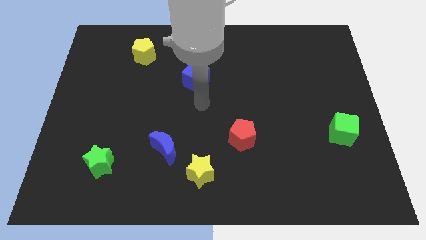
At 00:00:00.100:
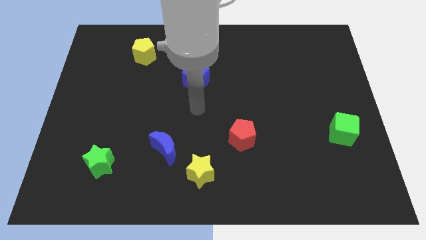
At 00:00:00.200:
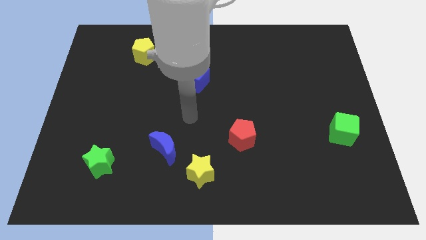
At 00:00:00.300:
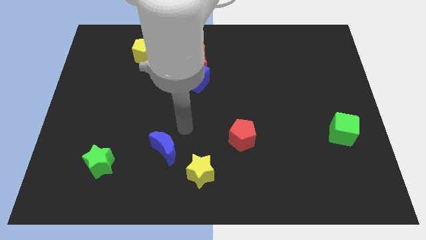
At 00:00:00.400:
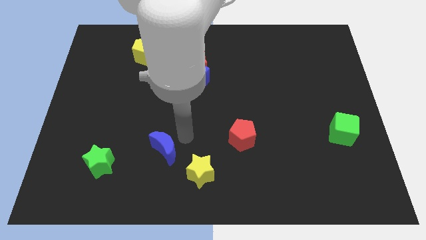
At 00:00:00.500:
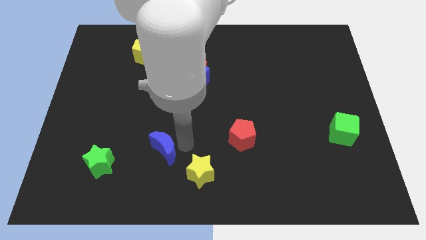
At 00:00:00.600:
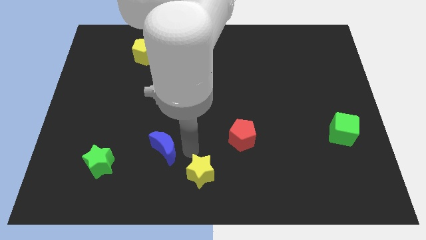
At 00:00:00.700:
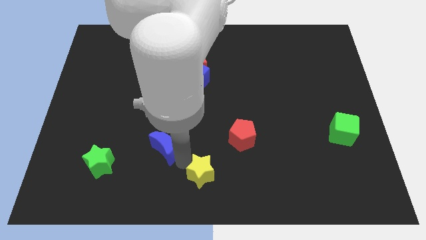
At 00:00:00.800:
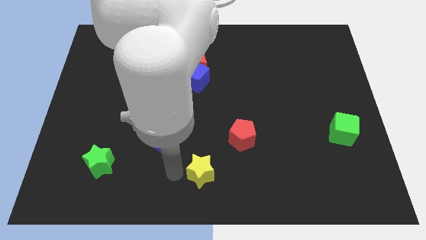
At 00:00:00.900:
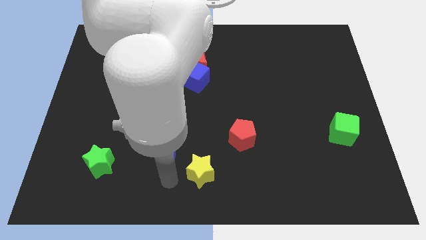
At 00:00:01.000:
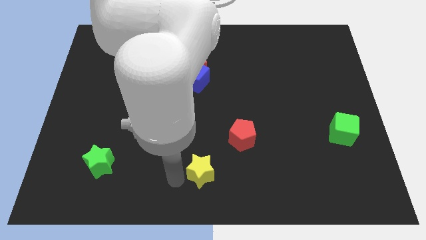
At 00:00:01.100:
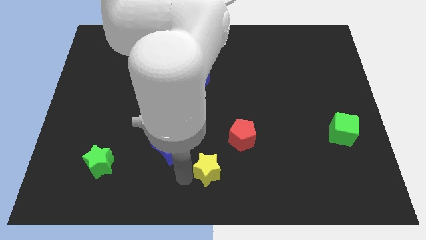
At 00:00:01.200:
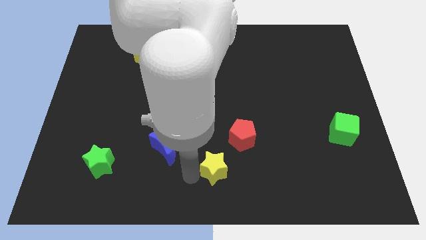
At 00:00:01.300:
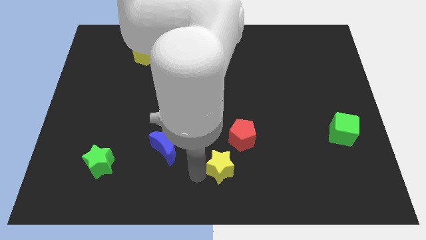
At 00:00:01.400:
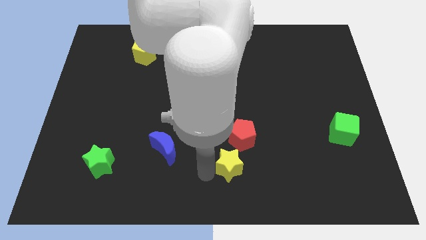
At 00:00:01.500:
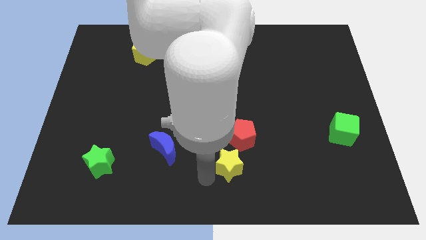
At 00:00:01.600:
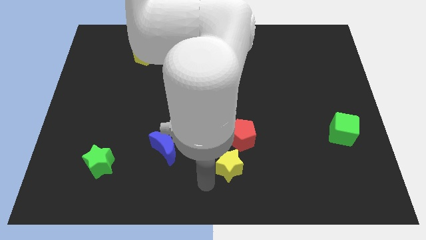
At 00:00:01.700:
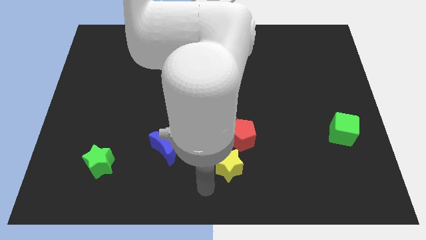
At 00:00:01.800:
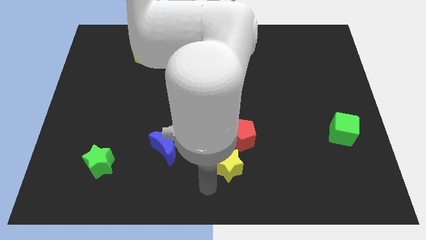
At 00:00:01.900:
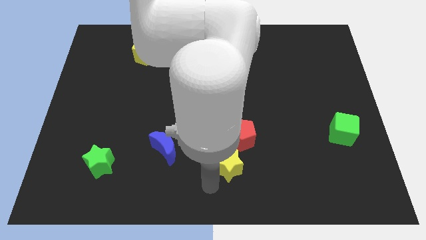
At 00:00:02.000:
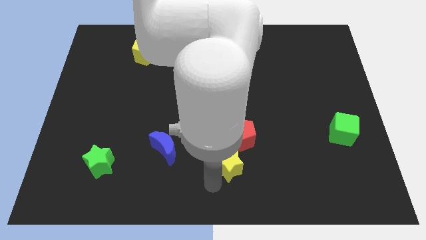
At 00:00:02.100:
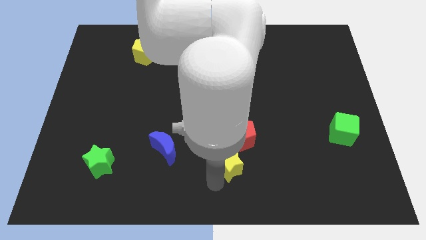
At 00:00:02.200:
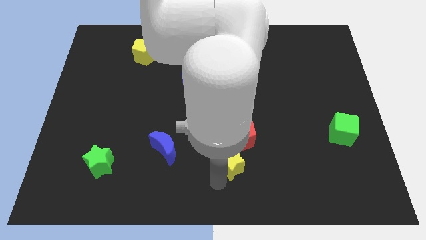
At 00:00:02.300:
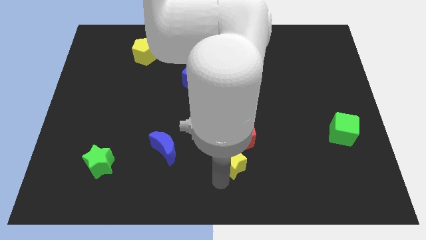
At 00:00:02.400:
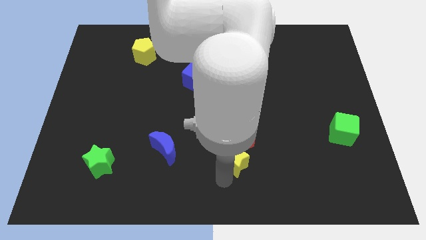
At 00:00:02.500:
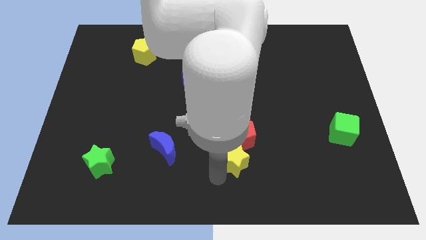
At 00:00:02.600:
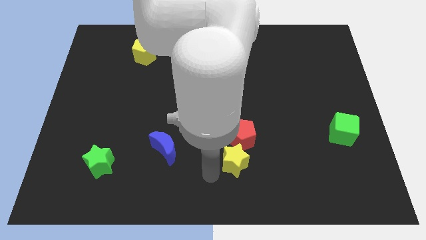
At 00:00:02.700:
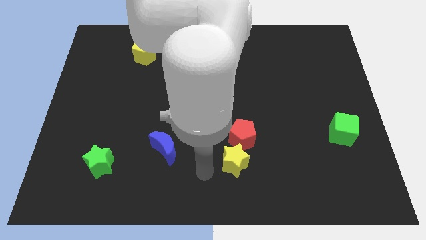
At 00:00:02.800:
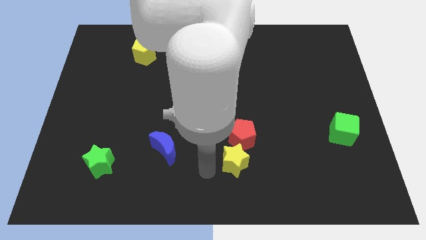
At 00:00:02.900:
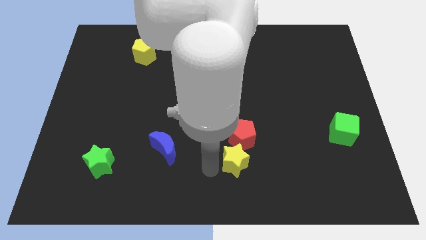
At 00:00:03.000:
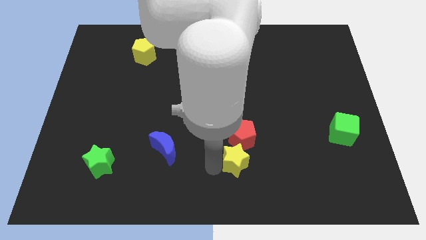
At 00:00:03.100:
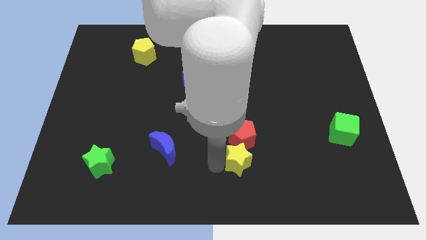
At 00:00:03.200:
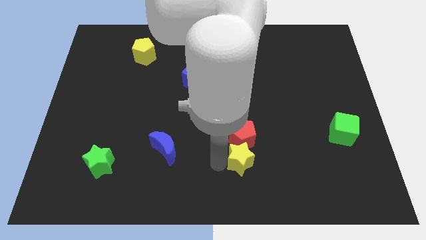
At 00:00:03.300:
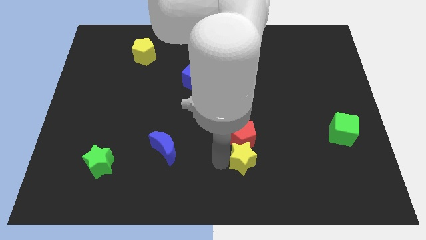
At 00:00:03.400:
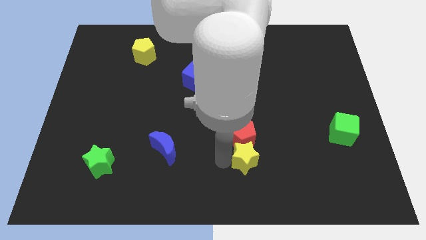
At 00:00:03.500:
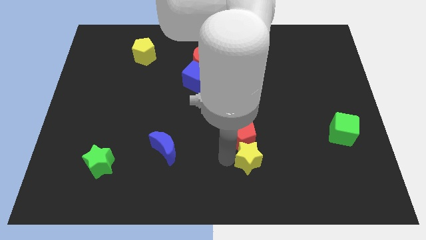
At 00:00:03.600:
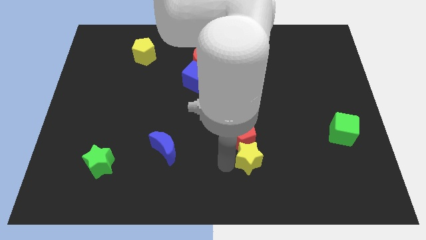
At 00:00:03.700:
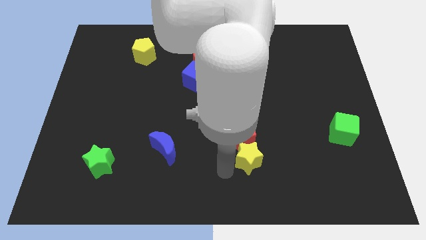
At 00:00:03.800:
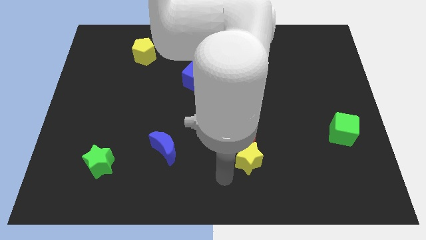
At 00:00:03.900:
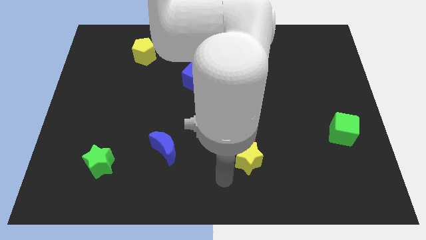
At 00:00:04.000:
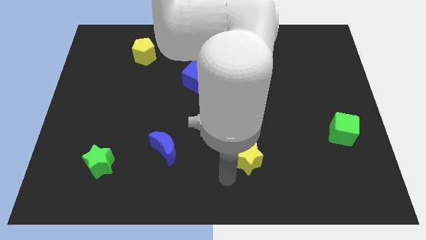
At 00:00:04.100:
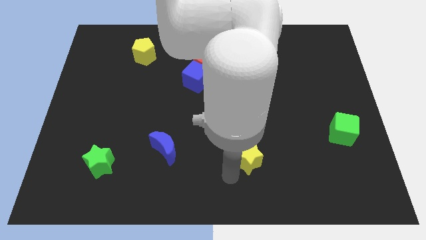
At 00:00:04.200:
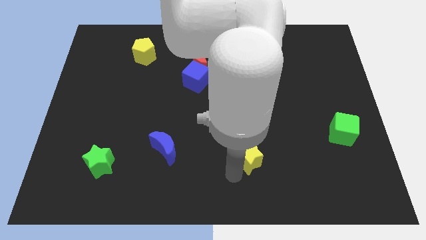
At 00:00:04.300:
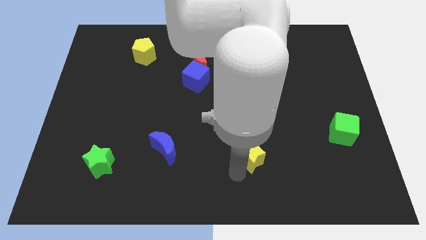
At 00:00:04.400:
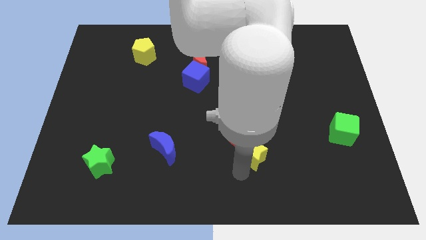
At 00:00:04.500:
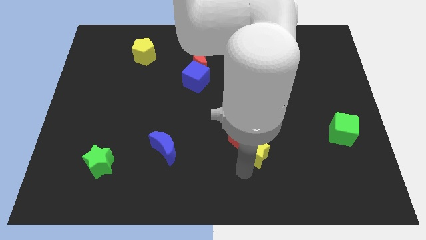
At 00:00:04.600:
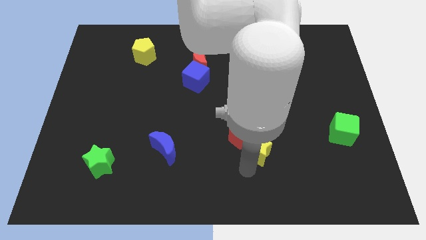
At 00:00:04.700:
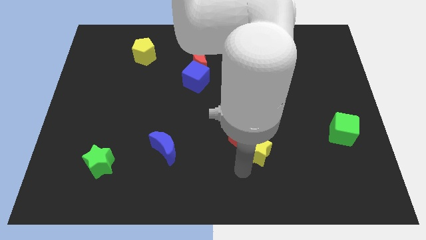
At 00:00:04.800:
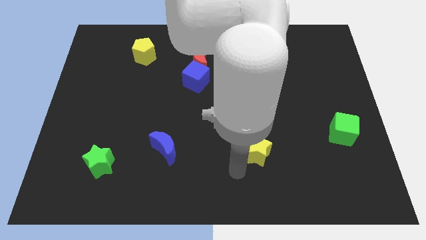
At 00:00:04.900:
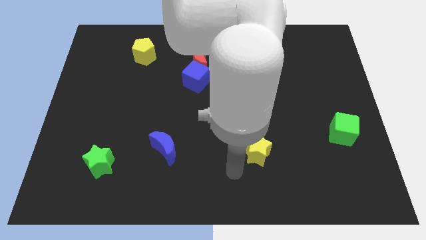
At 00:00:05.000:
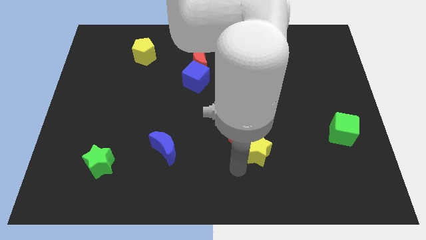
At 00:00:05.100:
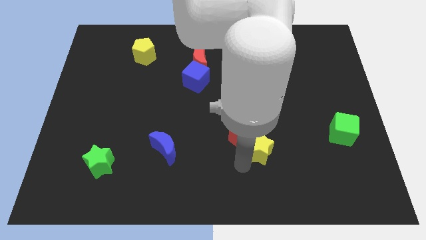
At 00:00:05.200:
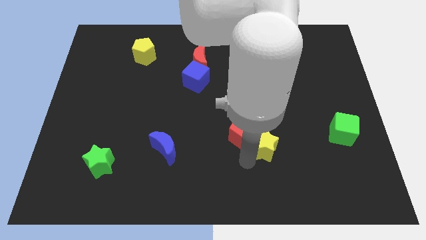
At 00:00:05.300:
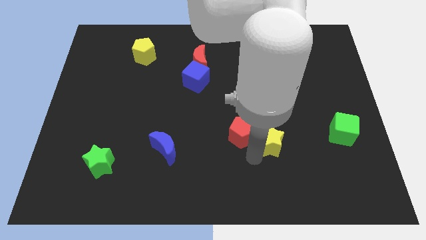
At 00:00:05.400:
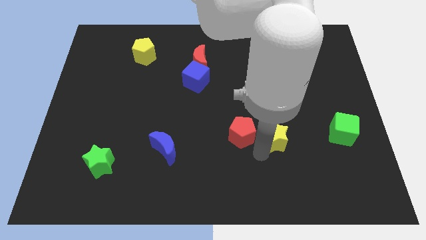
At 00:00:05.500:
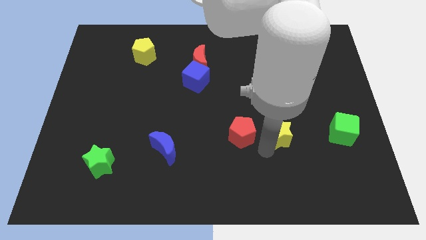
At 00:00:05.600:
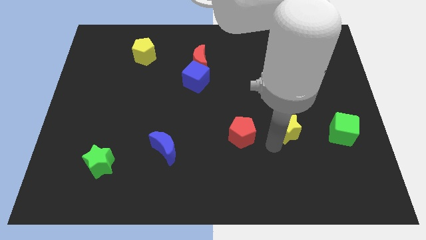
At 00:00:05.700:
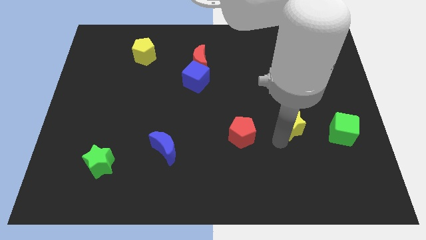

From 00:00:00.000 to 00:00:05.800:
push the yellow star up and to the right diagonally

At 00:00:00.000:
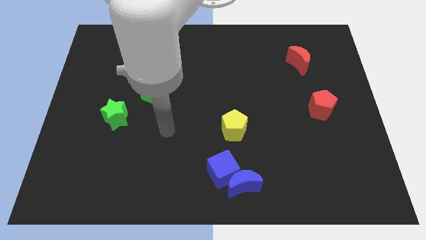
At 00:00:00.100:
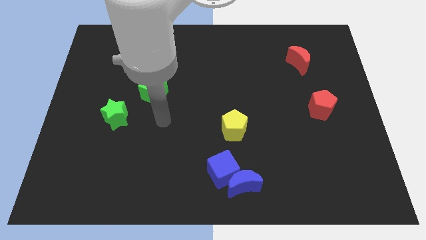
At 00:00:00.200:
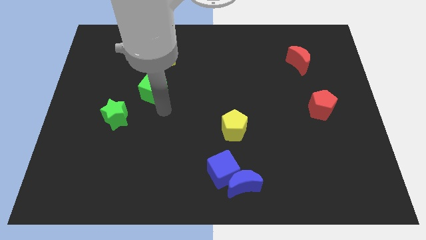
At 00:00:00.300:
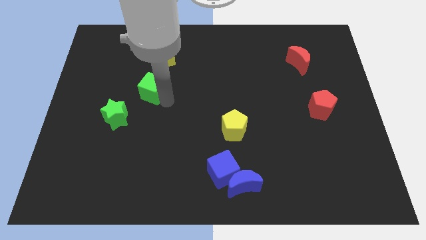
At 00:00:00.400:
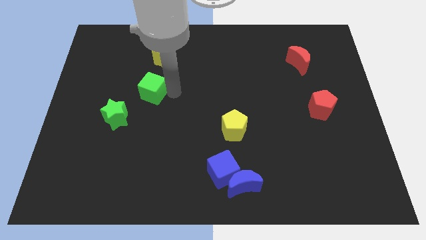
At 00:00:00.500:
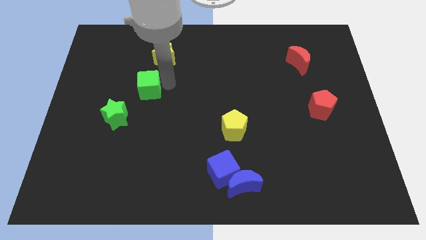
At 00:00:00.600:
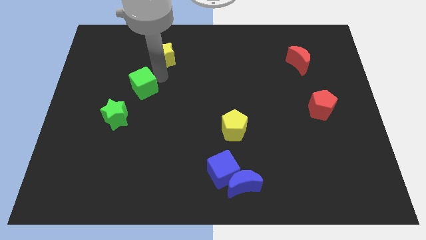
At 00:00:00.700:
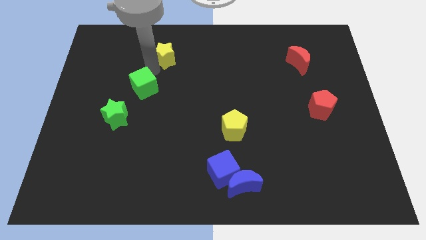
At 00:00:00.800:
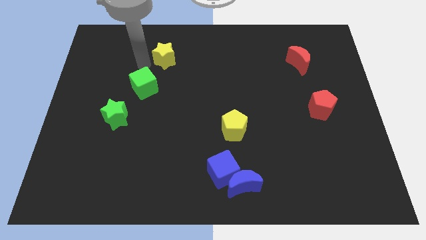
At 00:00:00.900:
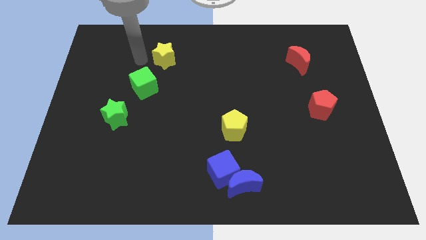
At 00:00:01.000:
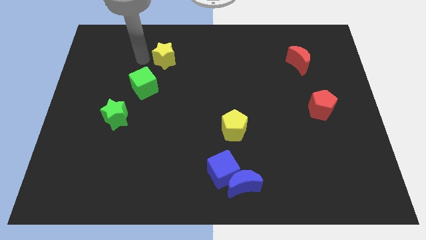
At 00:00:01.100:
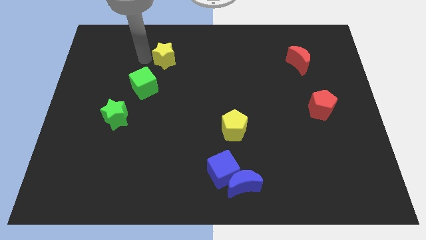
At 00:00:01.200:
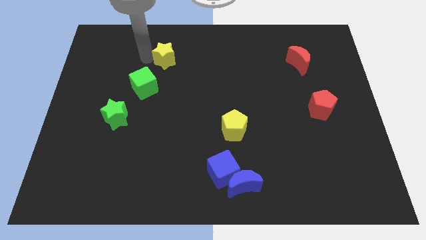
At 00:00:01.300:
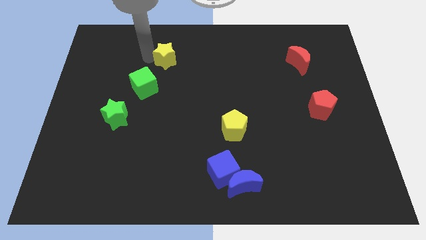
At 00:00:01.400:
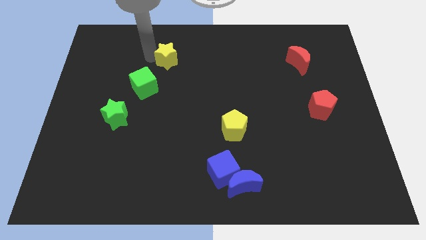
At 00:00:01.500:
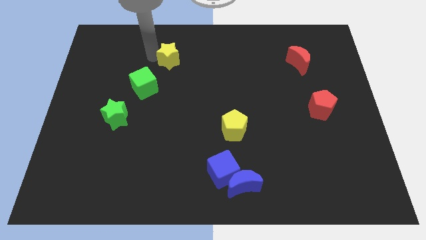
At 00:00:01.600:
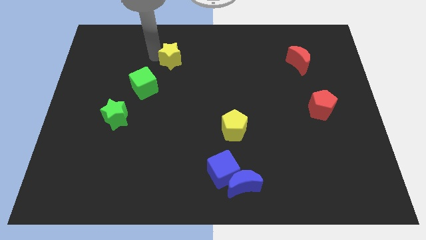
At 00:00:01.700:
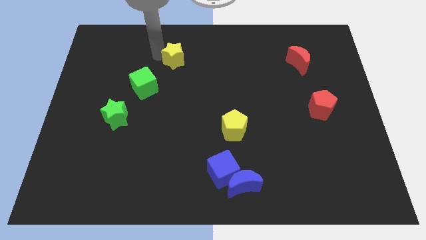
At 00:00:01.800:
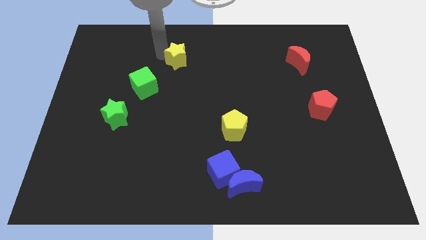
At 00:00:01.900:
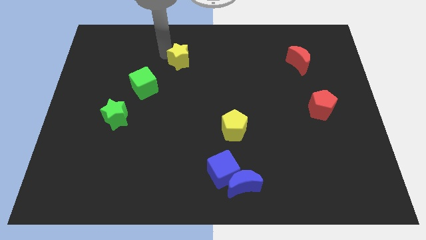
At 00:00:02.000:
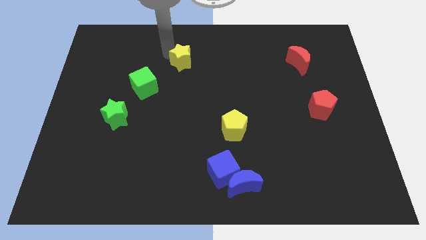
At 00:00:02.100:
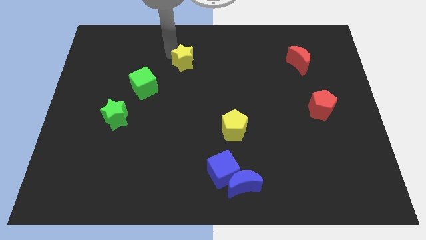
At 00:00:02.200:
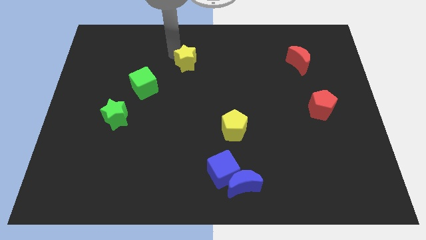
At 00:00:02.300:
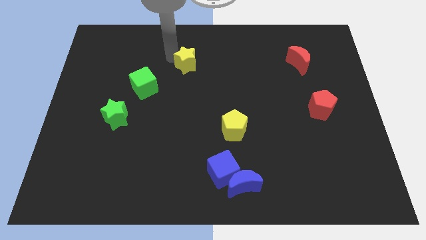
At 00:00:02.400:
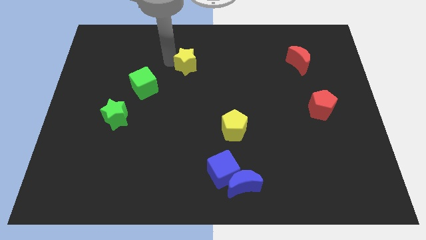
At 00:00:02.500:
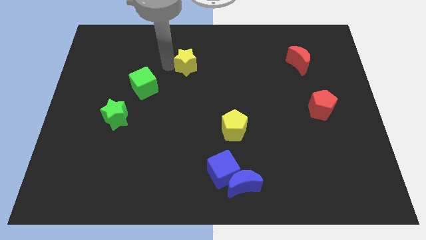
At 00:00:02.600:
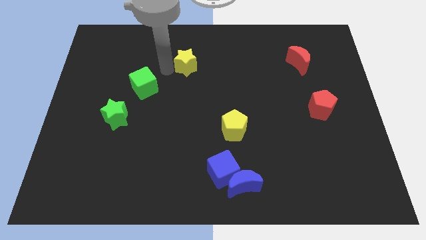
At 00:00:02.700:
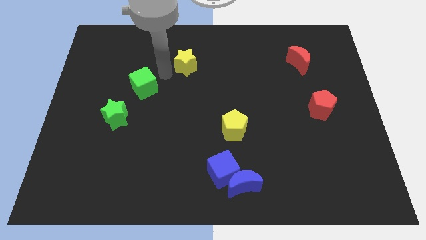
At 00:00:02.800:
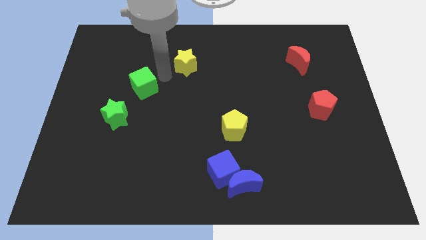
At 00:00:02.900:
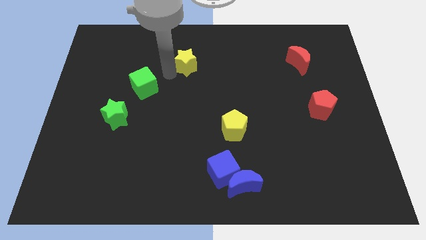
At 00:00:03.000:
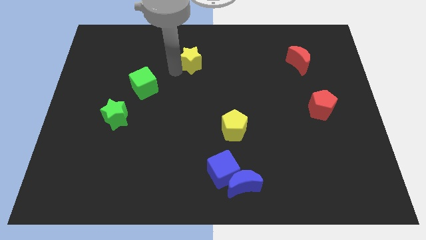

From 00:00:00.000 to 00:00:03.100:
move the yellow star a little right
